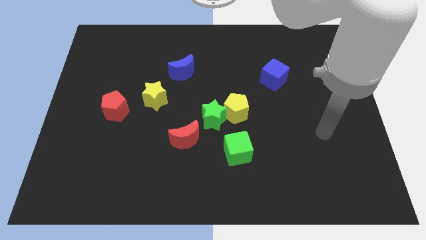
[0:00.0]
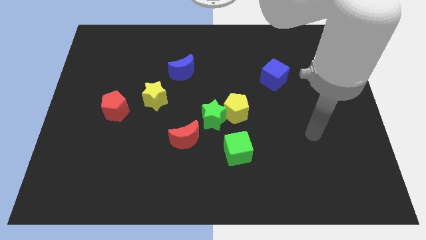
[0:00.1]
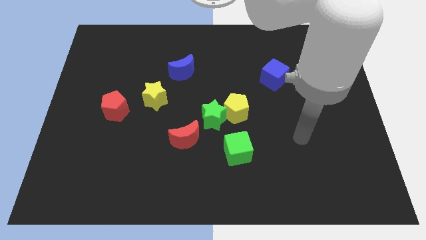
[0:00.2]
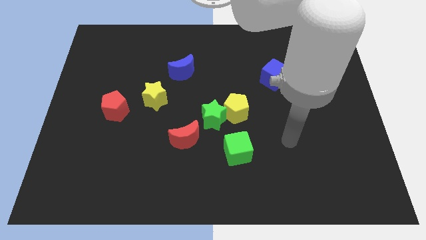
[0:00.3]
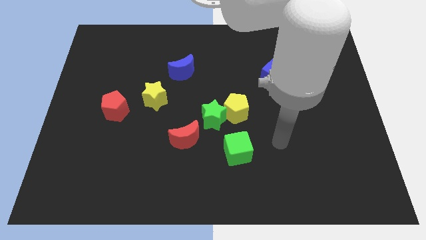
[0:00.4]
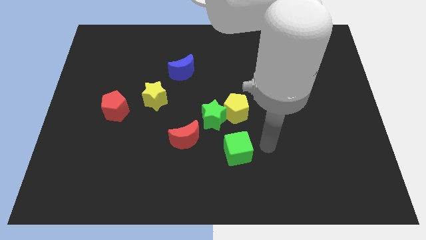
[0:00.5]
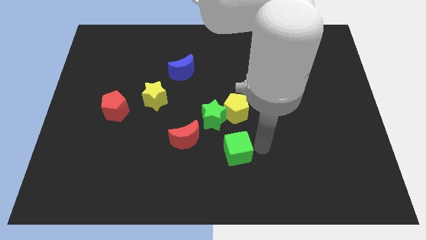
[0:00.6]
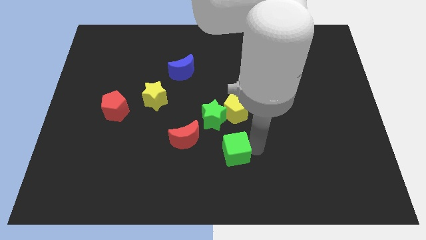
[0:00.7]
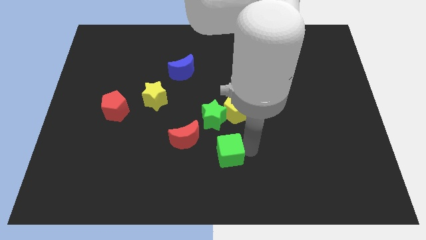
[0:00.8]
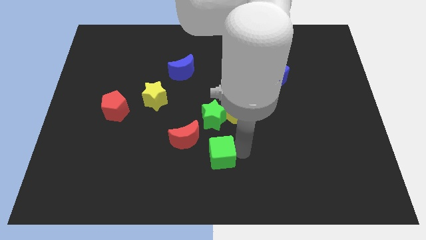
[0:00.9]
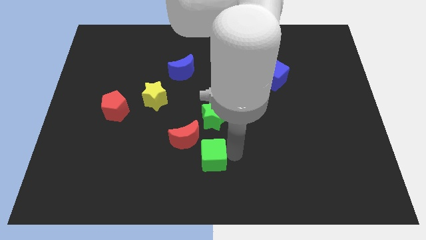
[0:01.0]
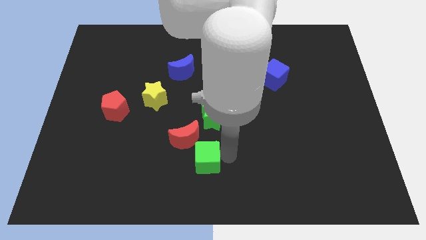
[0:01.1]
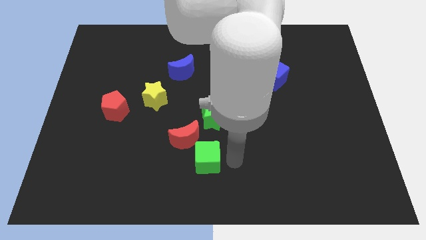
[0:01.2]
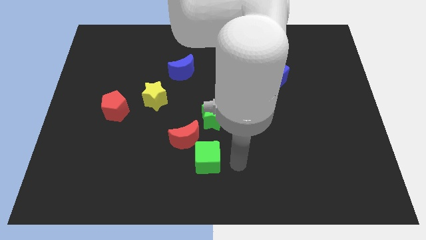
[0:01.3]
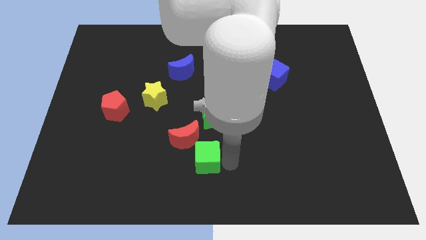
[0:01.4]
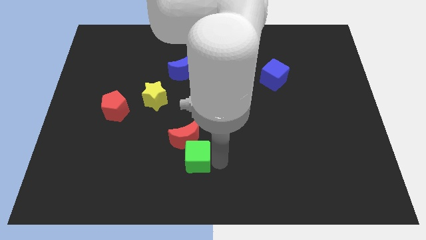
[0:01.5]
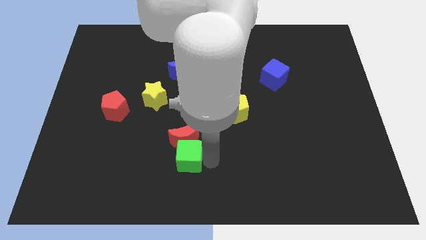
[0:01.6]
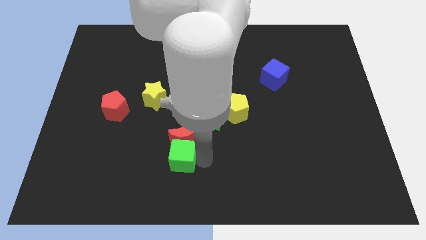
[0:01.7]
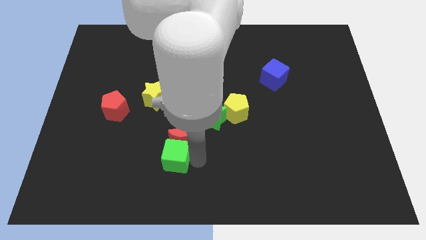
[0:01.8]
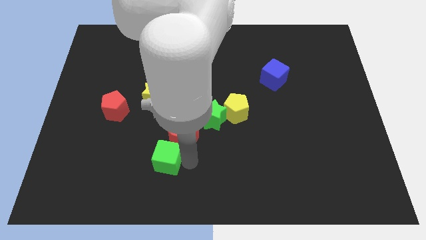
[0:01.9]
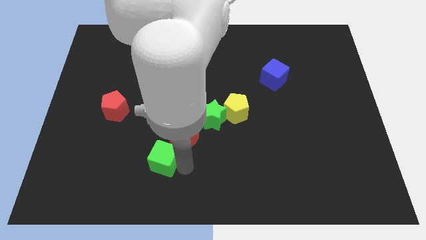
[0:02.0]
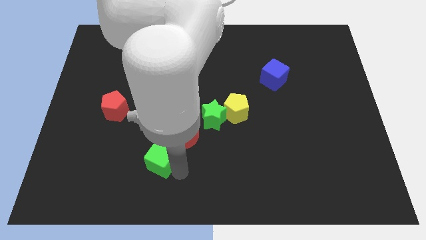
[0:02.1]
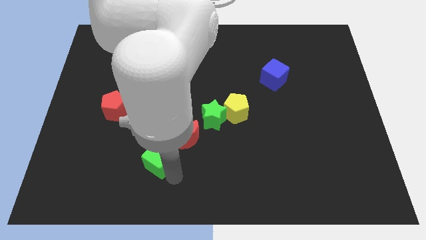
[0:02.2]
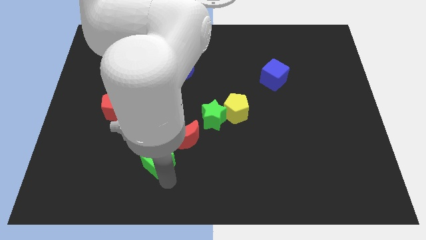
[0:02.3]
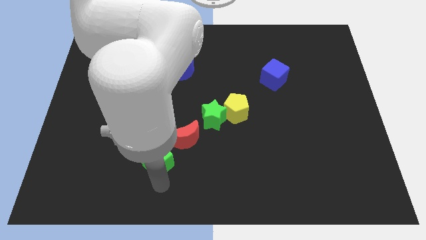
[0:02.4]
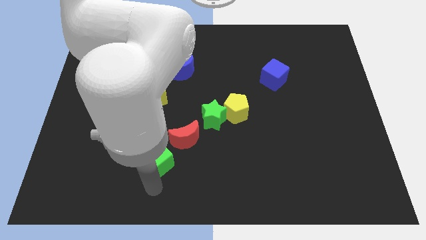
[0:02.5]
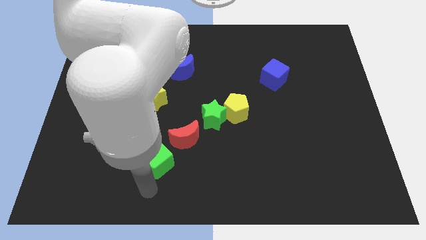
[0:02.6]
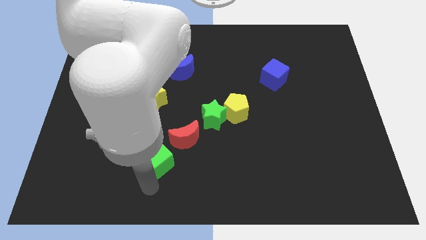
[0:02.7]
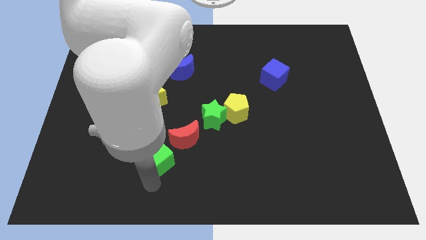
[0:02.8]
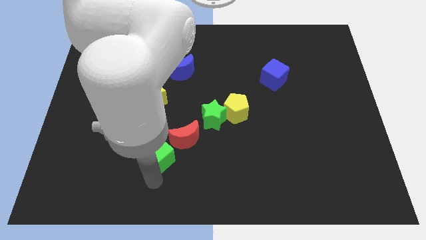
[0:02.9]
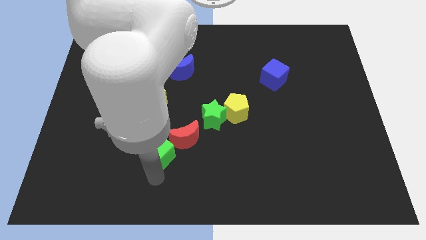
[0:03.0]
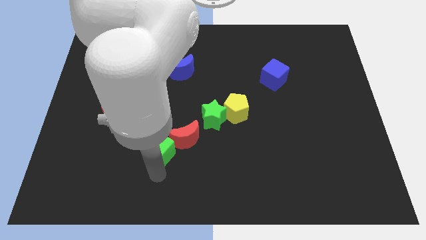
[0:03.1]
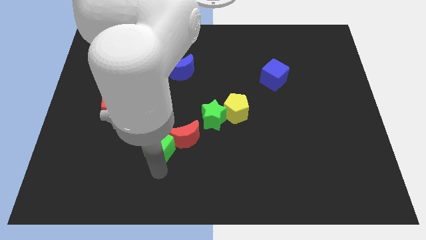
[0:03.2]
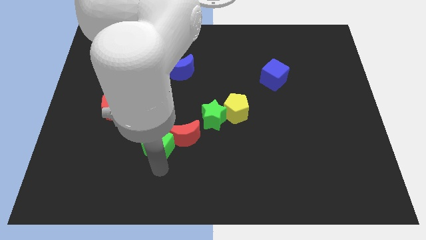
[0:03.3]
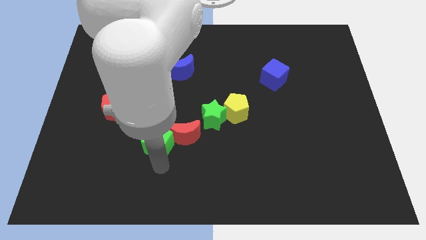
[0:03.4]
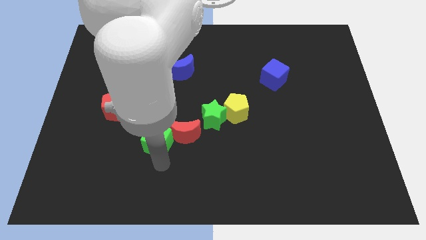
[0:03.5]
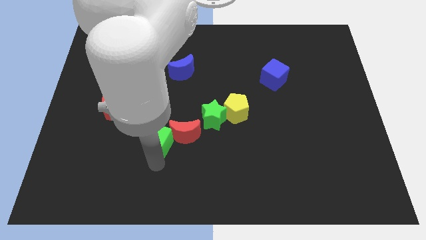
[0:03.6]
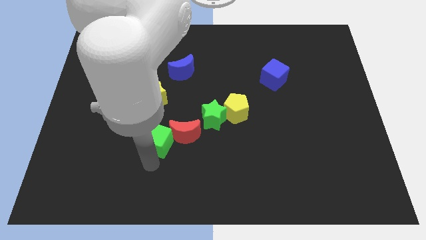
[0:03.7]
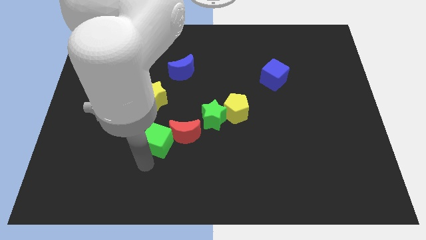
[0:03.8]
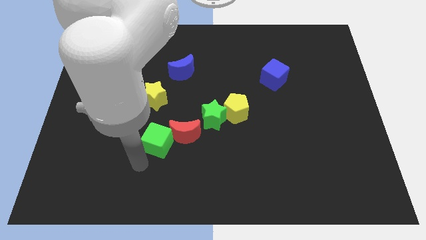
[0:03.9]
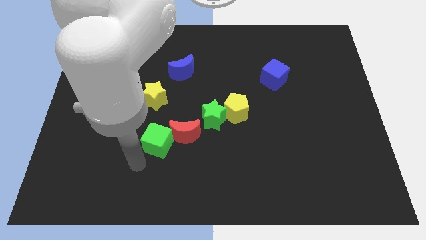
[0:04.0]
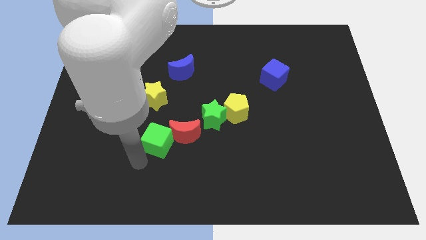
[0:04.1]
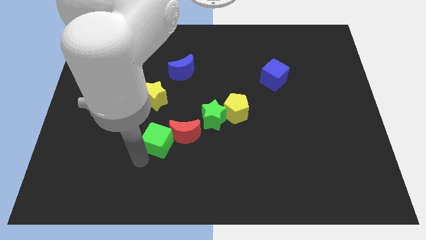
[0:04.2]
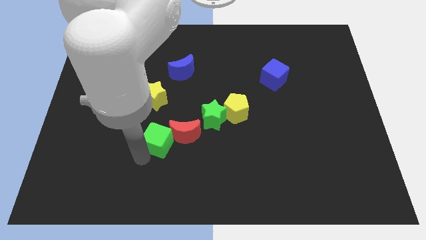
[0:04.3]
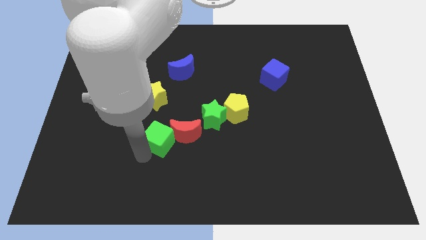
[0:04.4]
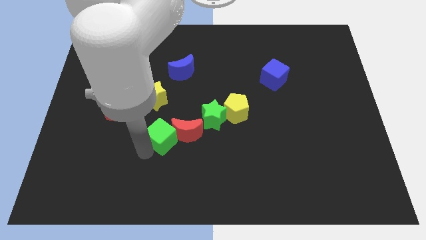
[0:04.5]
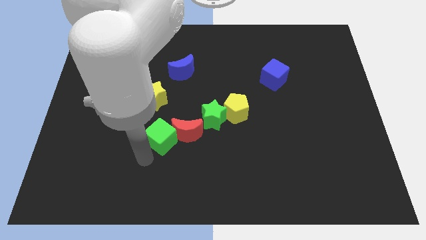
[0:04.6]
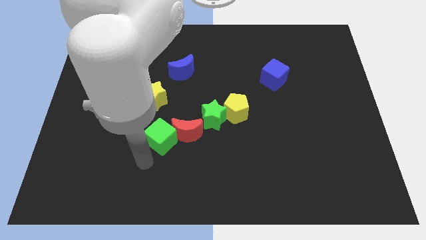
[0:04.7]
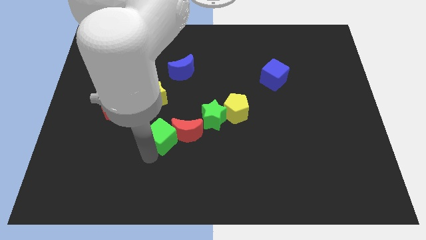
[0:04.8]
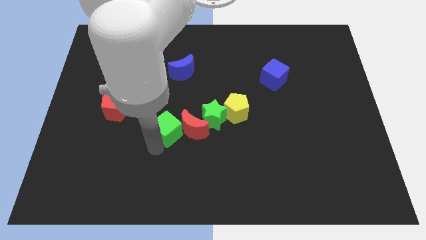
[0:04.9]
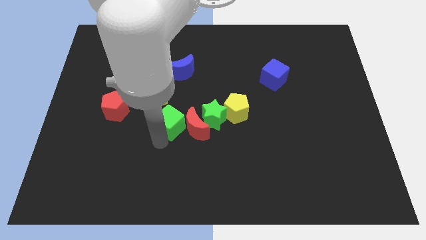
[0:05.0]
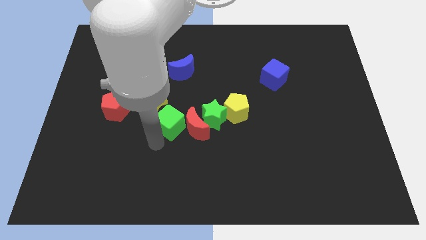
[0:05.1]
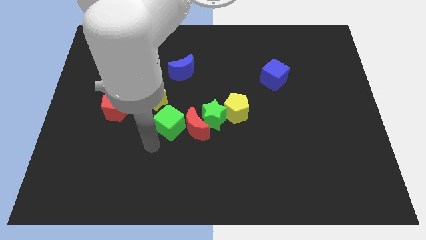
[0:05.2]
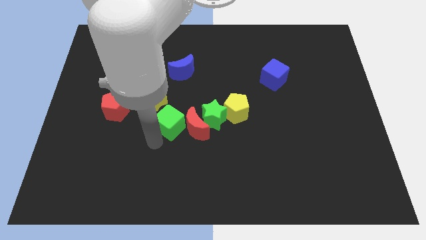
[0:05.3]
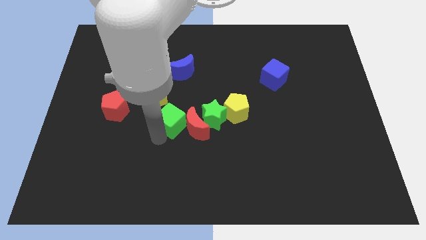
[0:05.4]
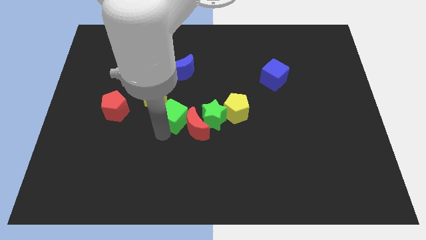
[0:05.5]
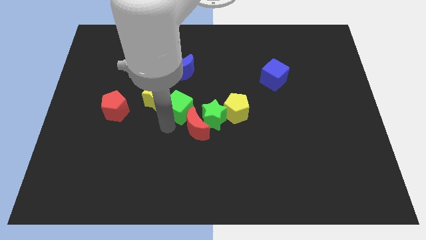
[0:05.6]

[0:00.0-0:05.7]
move the green cube to the right of the yellow star

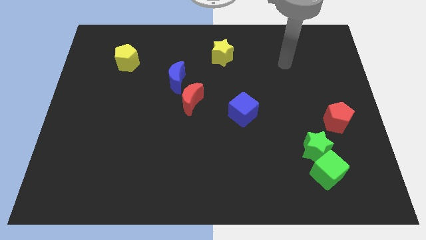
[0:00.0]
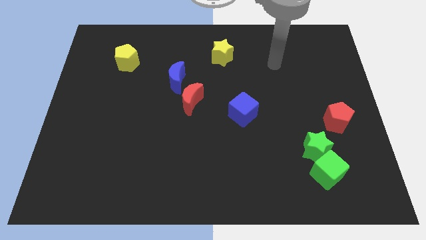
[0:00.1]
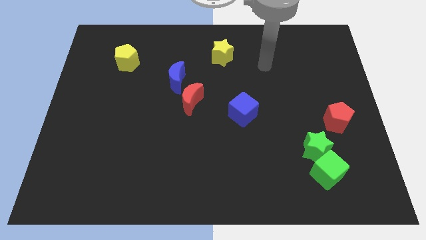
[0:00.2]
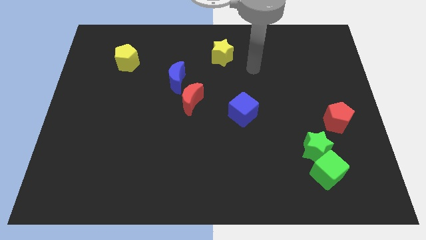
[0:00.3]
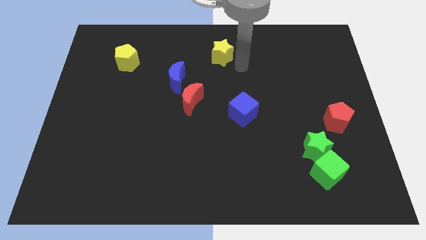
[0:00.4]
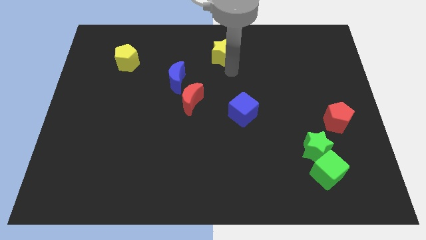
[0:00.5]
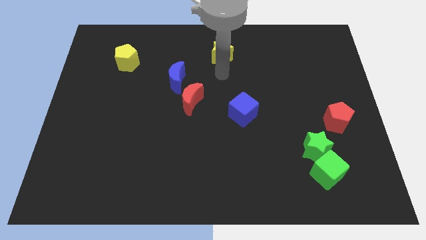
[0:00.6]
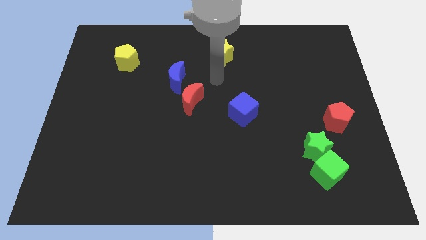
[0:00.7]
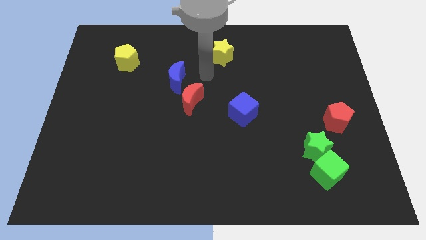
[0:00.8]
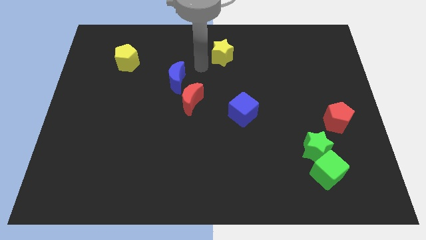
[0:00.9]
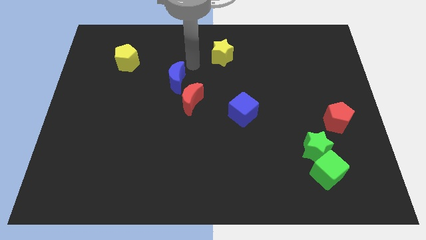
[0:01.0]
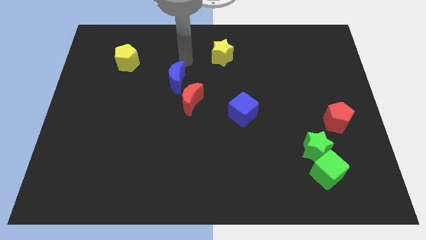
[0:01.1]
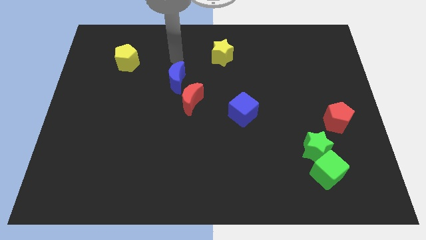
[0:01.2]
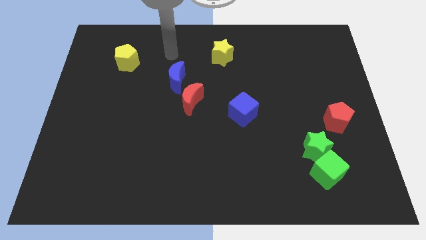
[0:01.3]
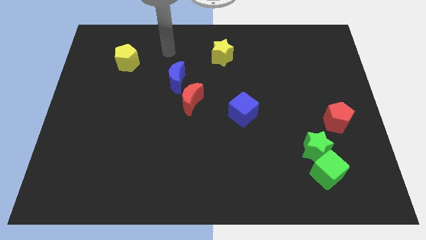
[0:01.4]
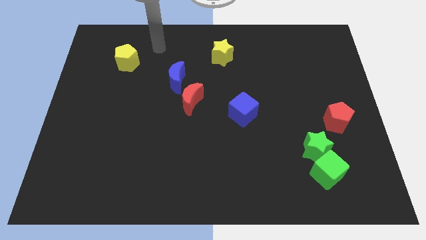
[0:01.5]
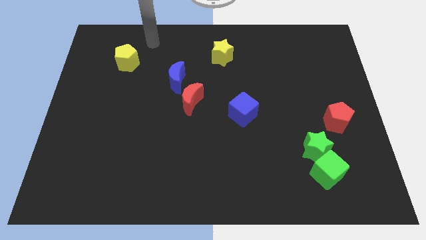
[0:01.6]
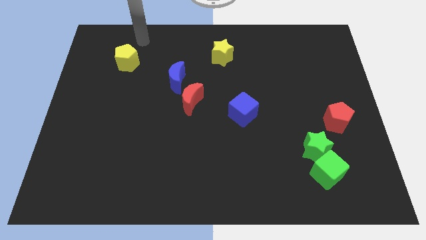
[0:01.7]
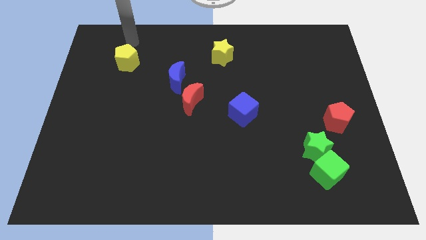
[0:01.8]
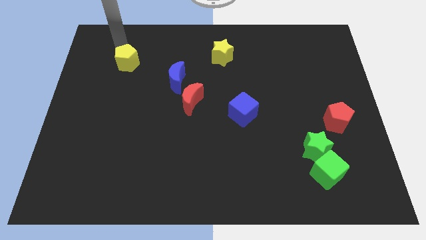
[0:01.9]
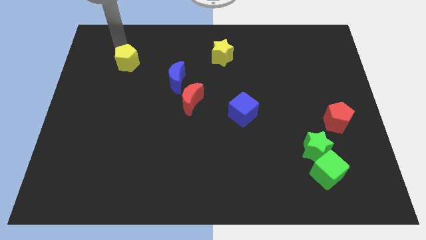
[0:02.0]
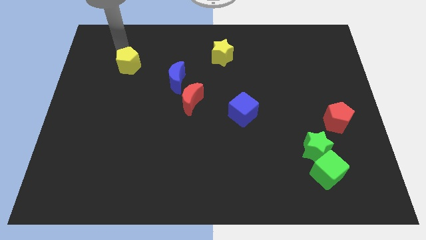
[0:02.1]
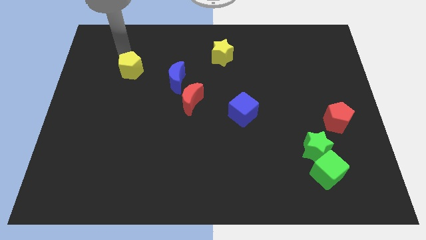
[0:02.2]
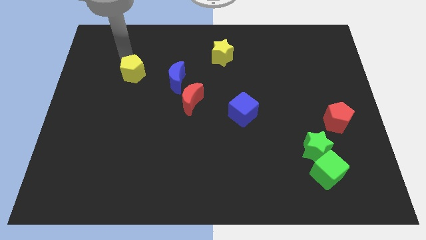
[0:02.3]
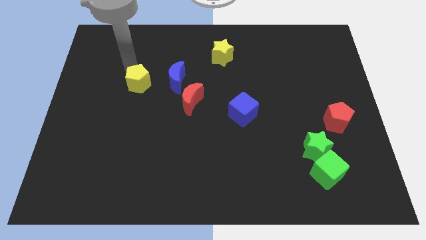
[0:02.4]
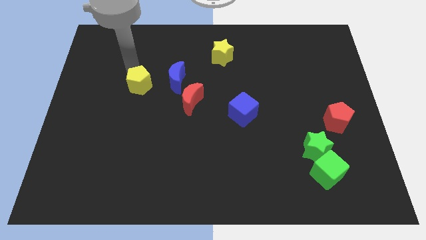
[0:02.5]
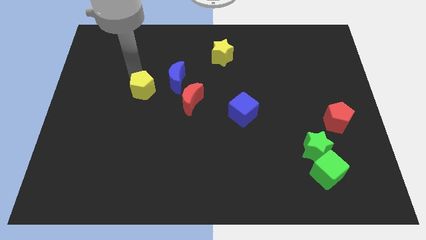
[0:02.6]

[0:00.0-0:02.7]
push the yellow pentagon to the left of the red moon
